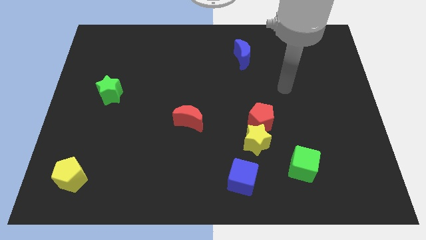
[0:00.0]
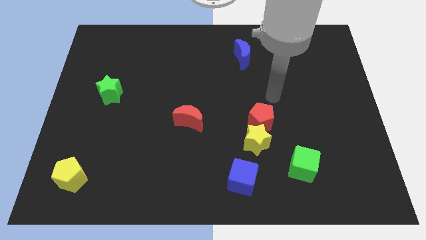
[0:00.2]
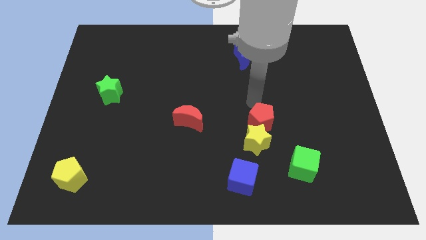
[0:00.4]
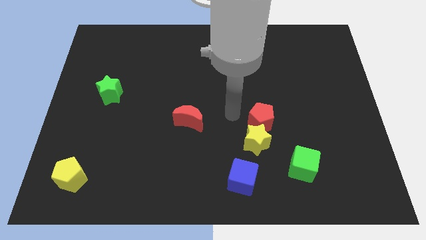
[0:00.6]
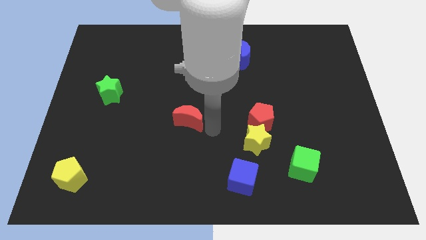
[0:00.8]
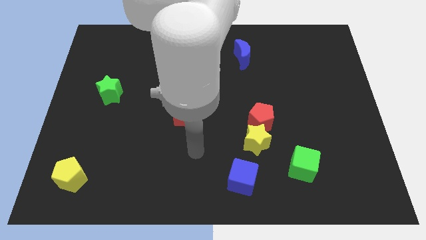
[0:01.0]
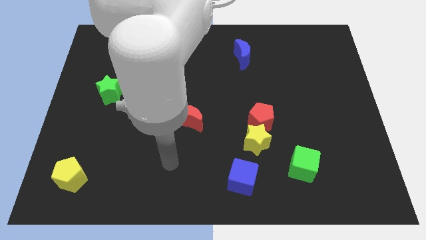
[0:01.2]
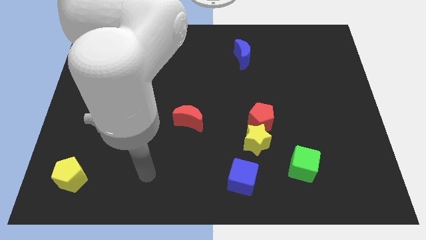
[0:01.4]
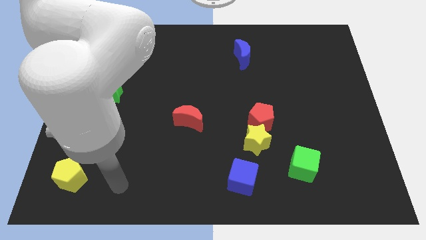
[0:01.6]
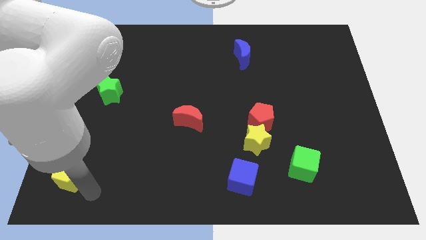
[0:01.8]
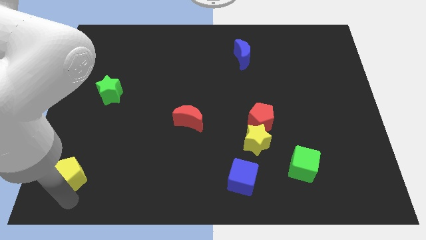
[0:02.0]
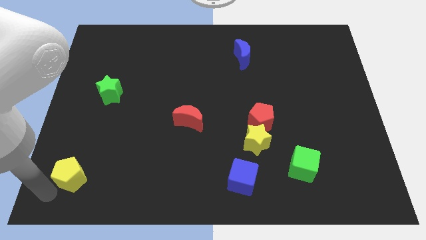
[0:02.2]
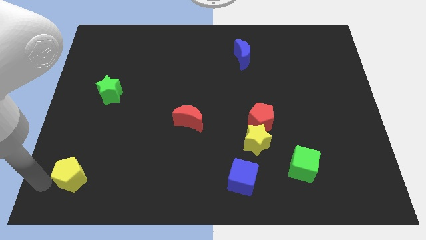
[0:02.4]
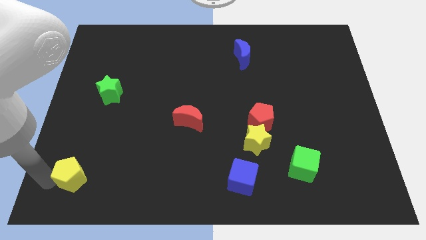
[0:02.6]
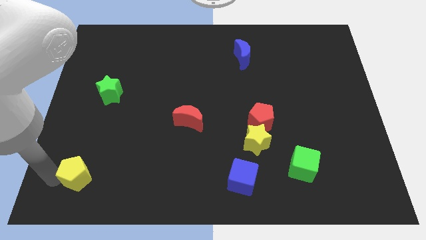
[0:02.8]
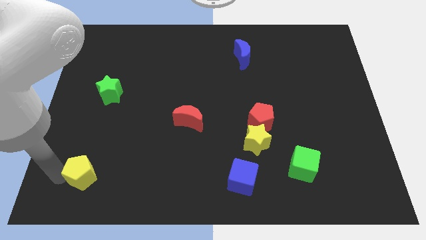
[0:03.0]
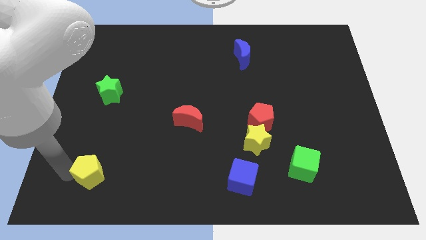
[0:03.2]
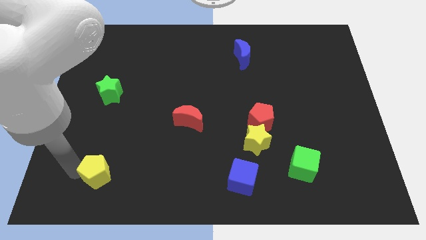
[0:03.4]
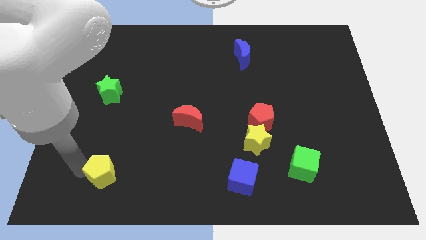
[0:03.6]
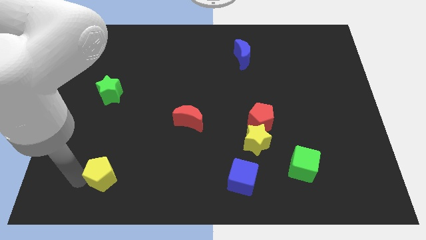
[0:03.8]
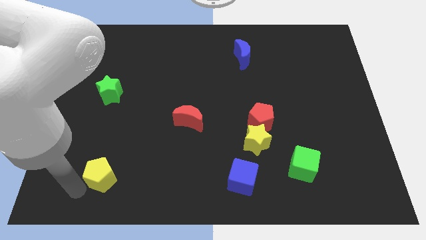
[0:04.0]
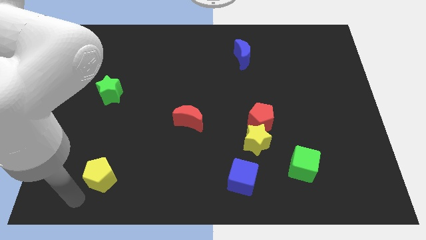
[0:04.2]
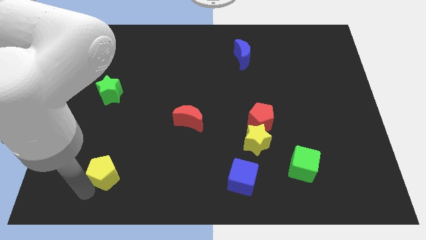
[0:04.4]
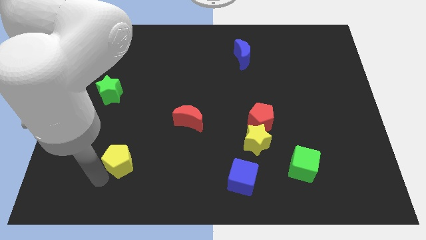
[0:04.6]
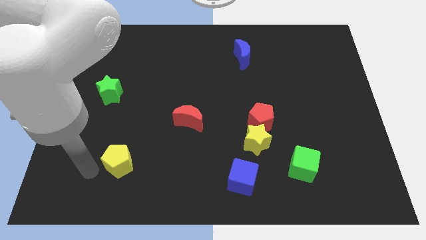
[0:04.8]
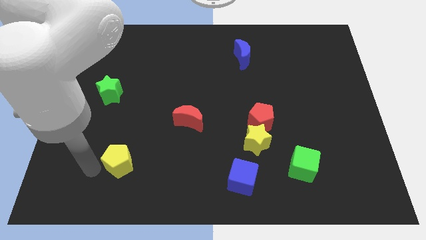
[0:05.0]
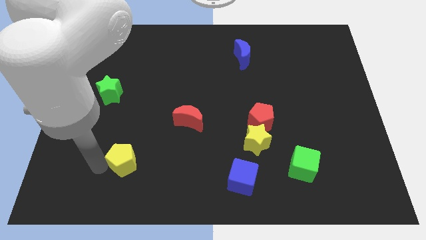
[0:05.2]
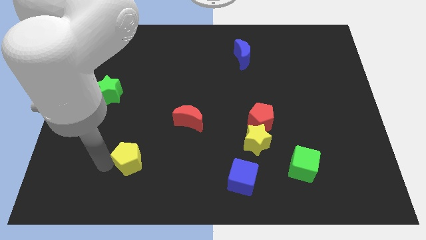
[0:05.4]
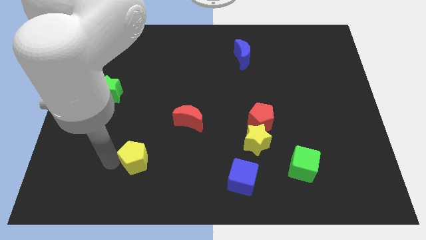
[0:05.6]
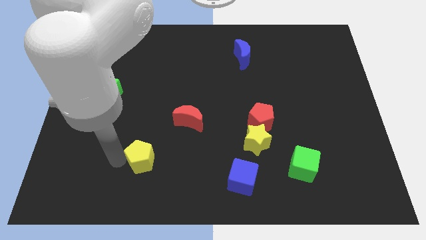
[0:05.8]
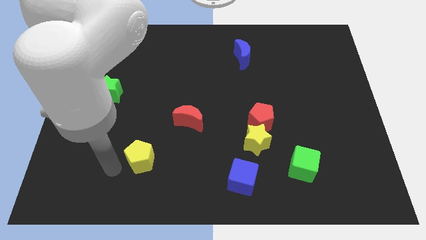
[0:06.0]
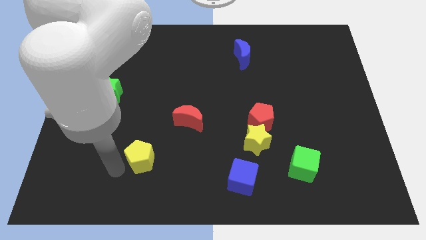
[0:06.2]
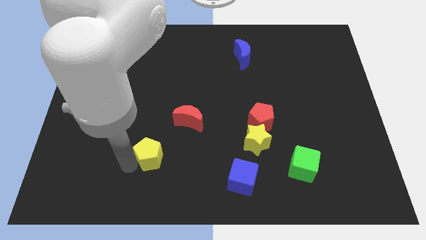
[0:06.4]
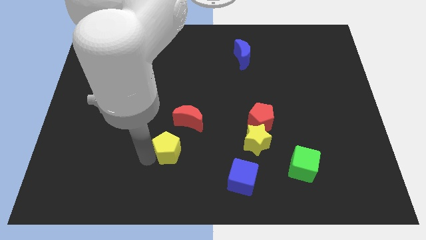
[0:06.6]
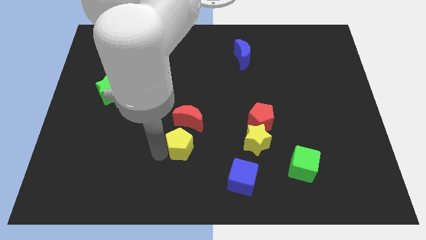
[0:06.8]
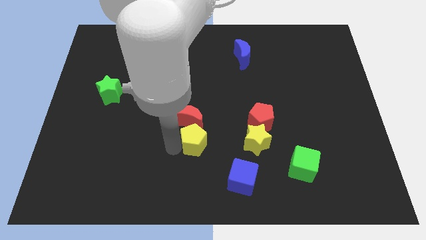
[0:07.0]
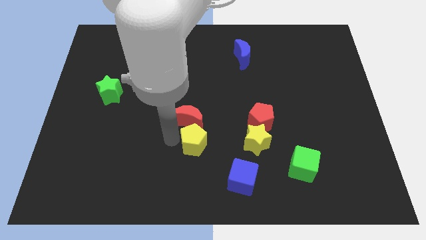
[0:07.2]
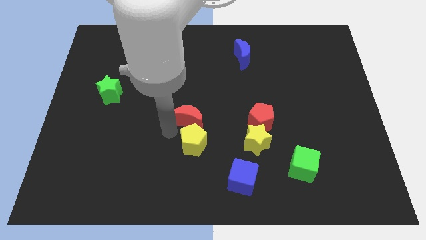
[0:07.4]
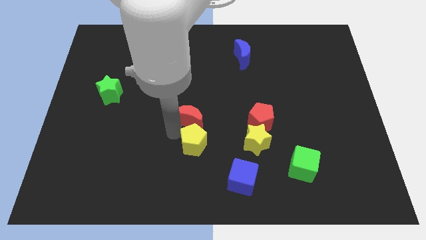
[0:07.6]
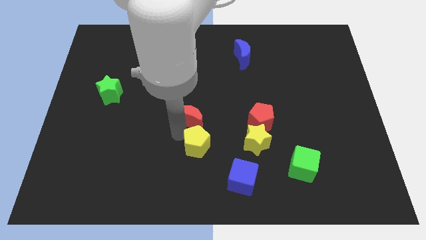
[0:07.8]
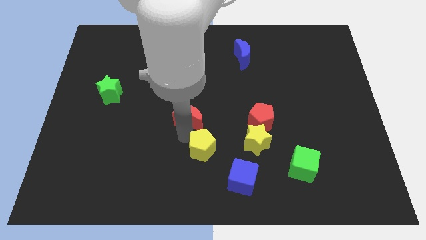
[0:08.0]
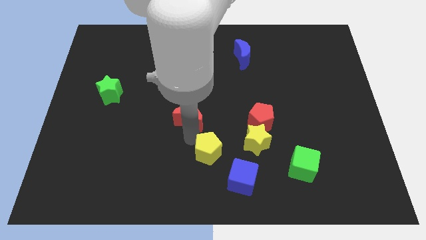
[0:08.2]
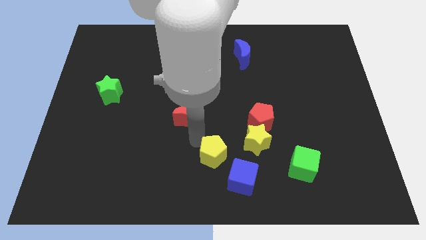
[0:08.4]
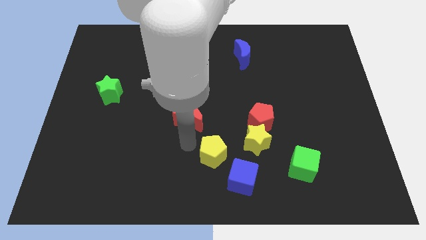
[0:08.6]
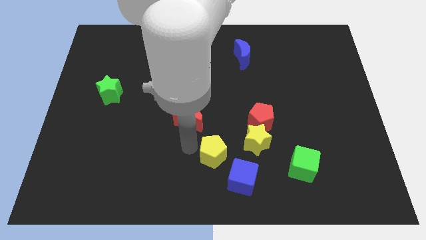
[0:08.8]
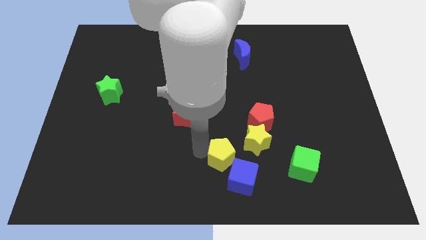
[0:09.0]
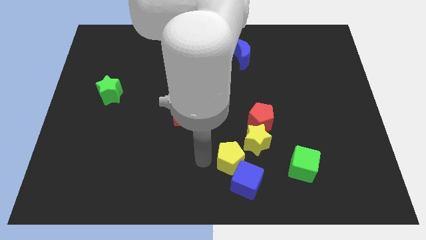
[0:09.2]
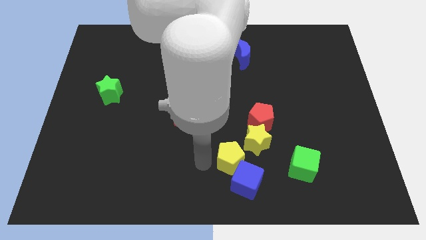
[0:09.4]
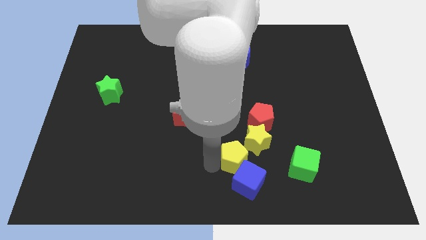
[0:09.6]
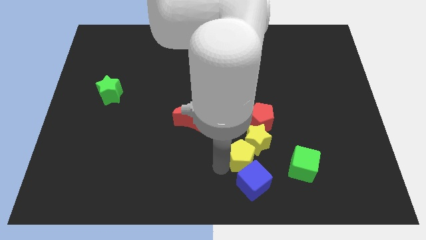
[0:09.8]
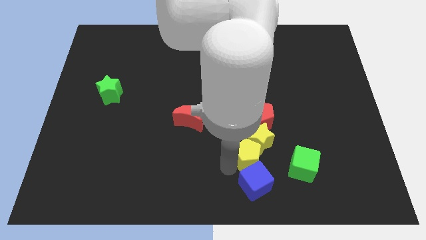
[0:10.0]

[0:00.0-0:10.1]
move the yellow pentagon diagonally up and to the right of the blue cube

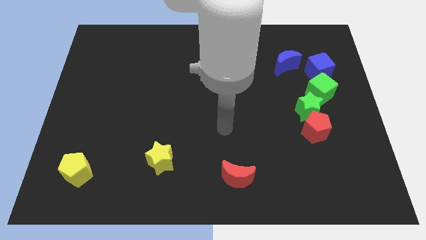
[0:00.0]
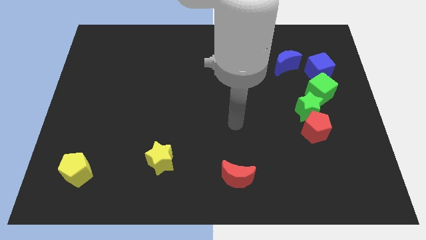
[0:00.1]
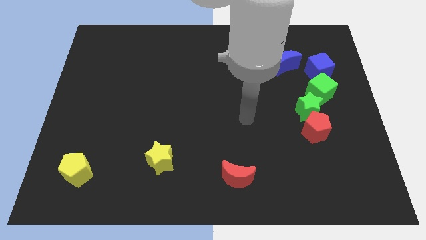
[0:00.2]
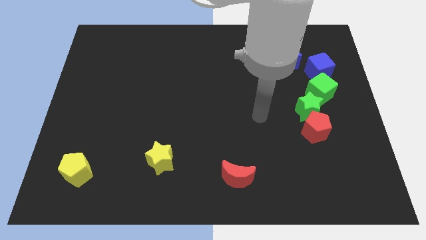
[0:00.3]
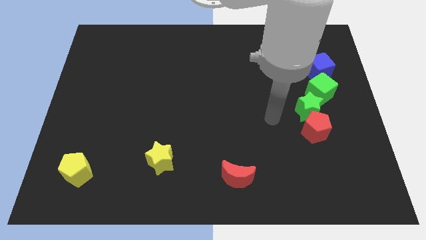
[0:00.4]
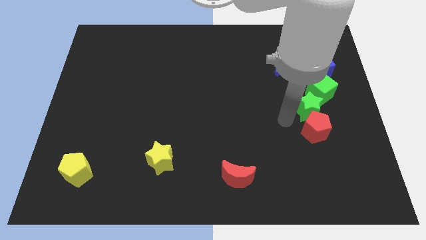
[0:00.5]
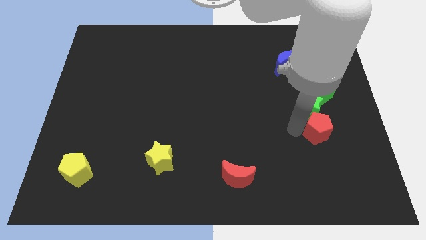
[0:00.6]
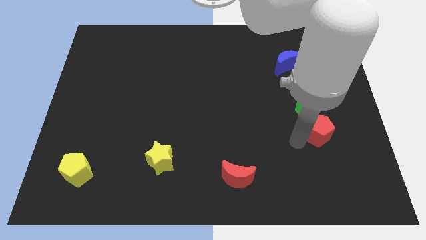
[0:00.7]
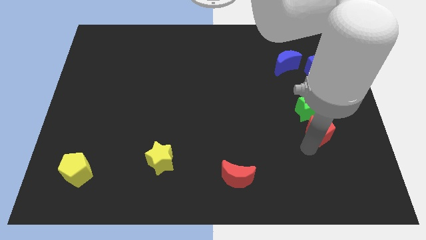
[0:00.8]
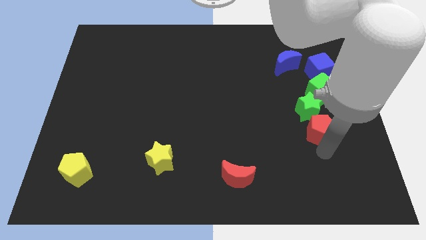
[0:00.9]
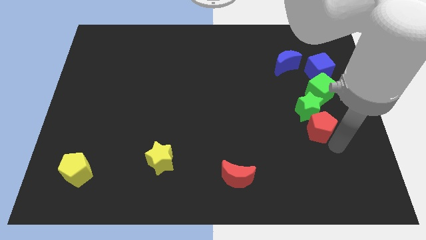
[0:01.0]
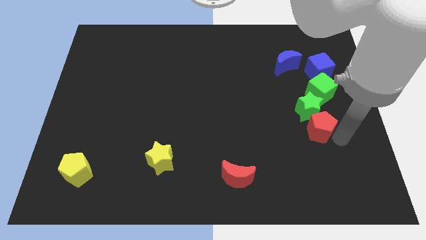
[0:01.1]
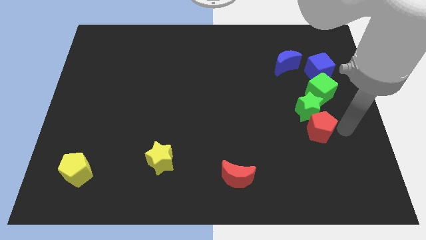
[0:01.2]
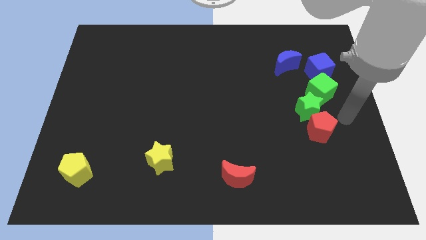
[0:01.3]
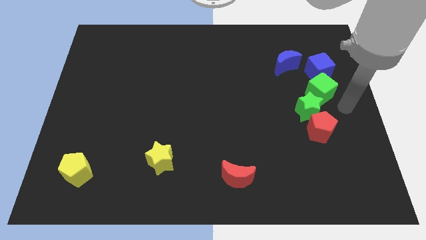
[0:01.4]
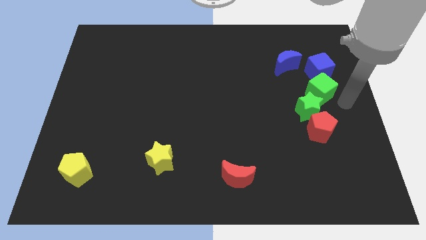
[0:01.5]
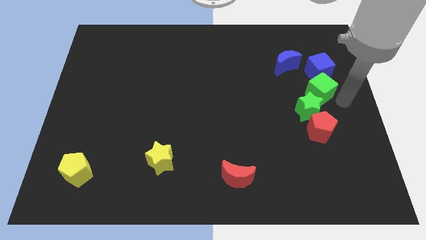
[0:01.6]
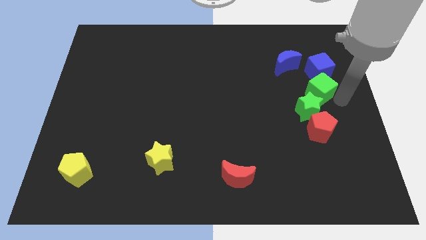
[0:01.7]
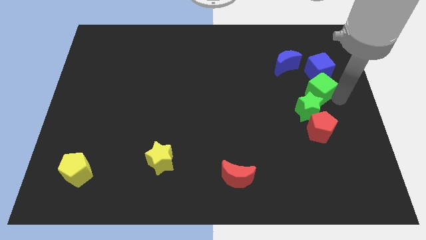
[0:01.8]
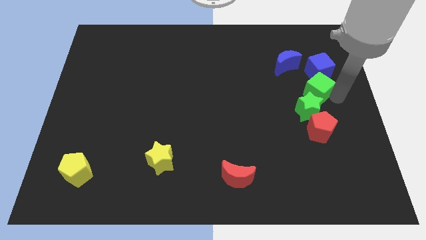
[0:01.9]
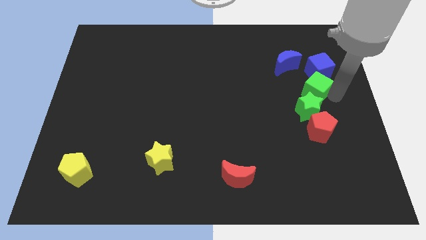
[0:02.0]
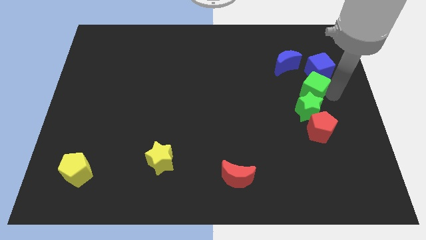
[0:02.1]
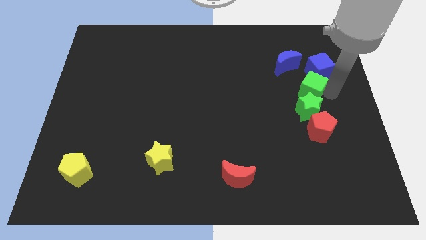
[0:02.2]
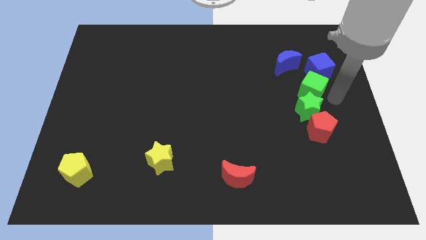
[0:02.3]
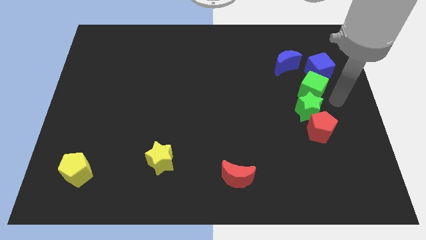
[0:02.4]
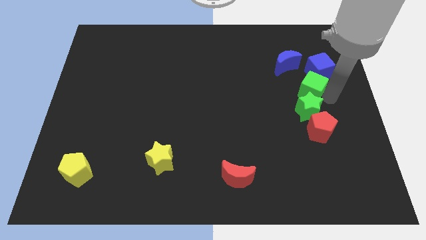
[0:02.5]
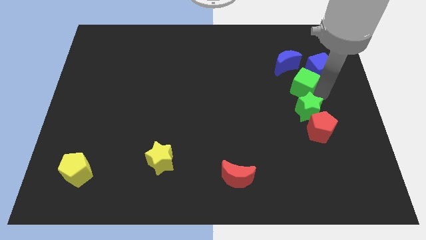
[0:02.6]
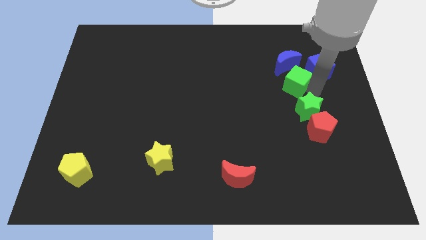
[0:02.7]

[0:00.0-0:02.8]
move the green cube just left of the blue cube
